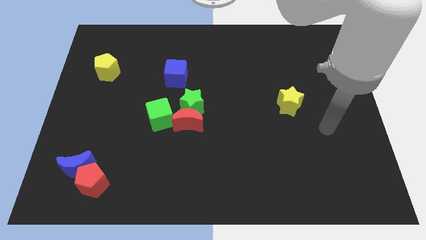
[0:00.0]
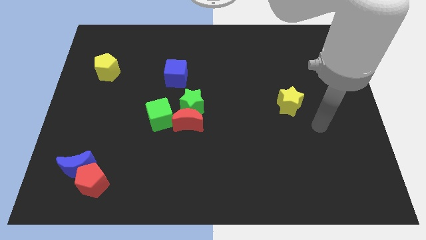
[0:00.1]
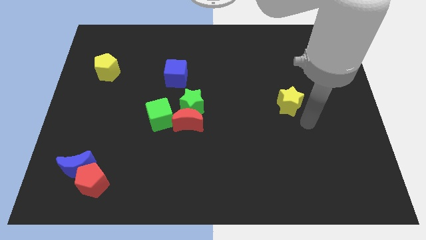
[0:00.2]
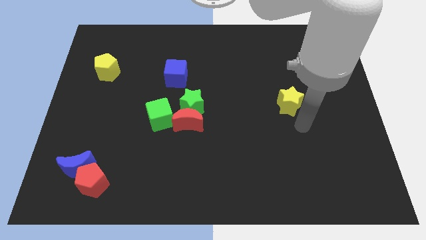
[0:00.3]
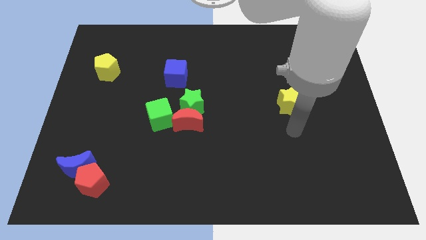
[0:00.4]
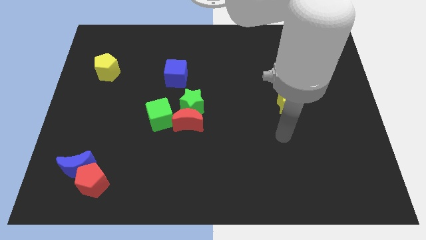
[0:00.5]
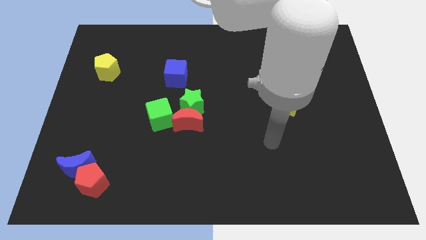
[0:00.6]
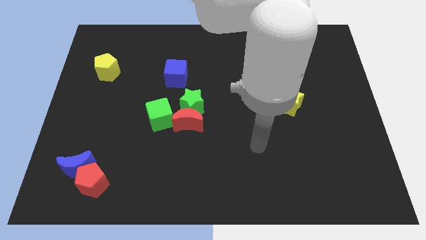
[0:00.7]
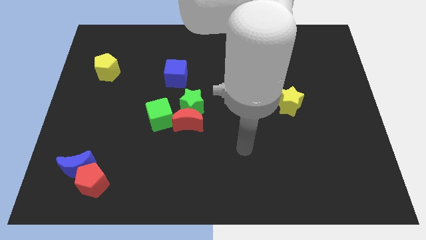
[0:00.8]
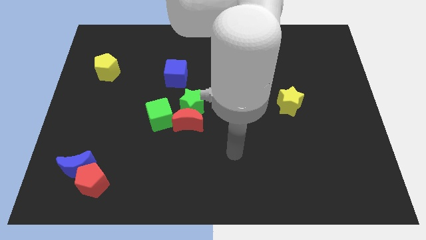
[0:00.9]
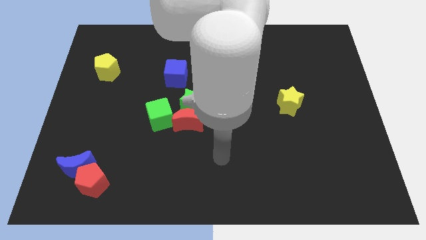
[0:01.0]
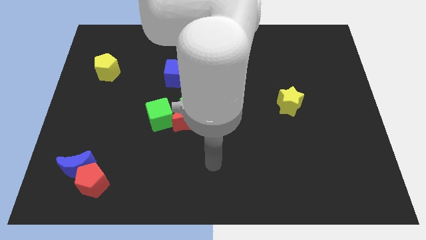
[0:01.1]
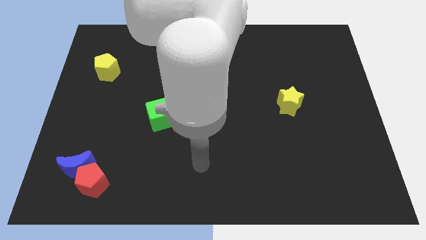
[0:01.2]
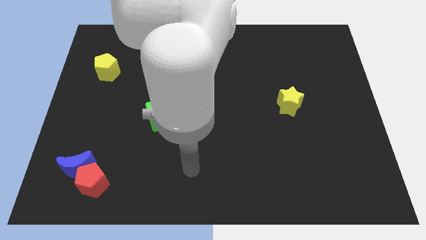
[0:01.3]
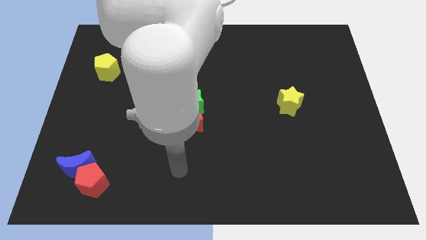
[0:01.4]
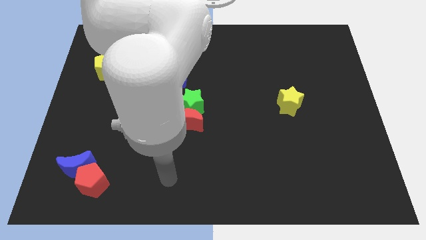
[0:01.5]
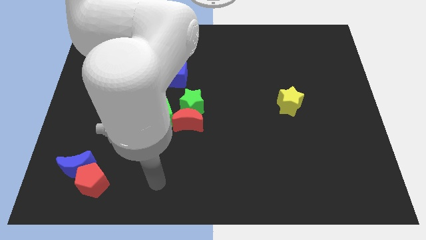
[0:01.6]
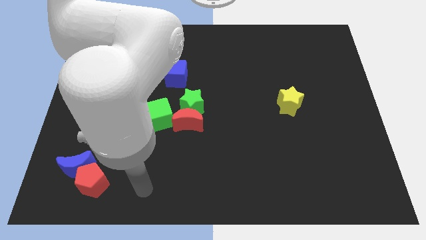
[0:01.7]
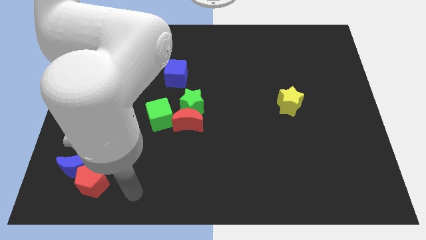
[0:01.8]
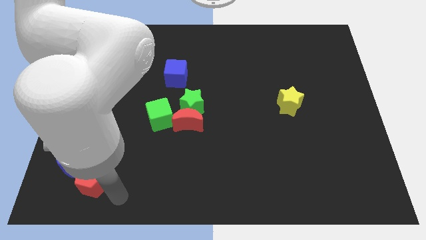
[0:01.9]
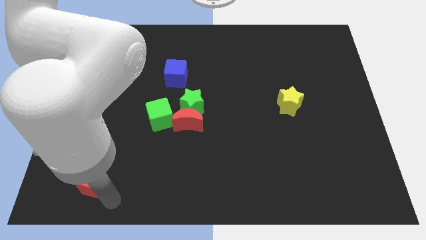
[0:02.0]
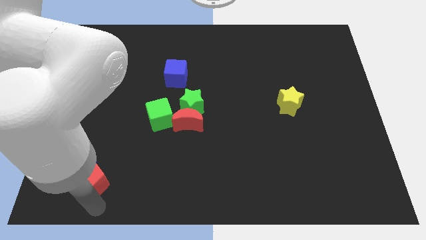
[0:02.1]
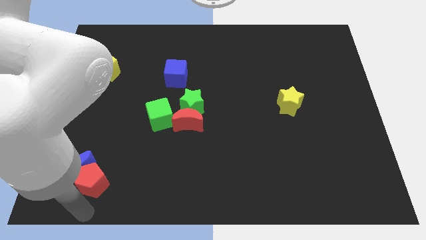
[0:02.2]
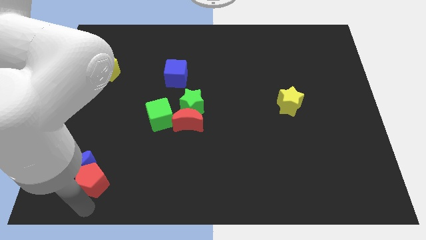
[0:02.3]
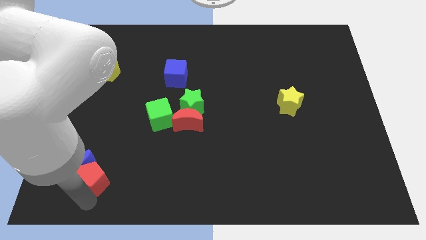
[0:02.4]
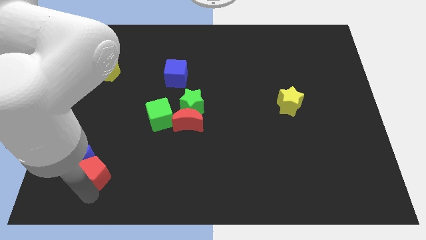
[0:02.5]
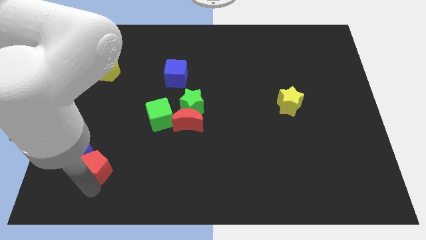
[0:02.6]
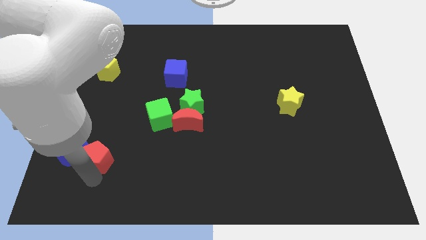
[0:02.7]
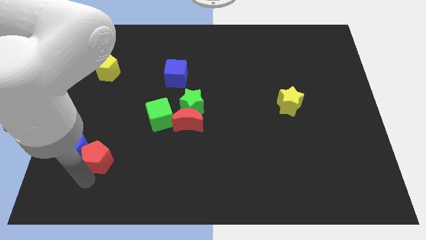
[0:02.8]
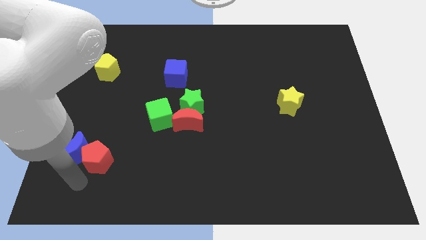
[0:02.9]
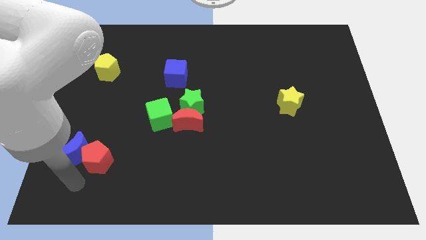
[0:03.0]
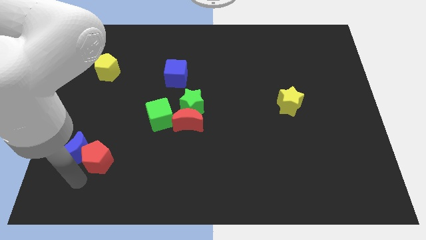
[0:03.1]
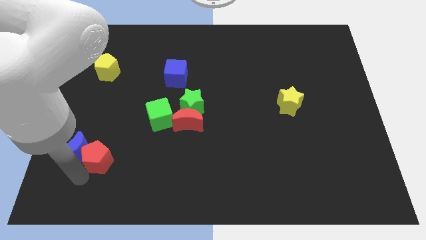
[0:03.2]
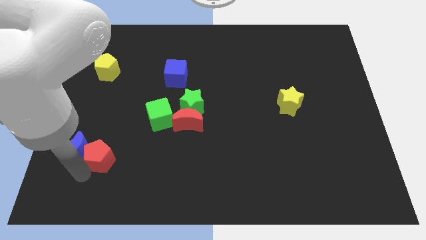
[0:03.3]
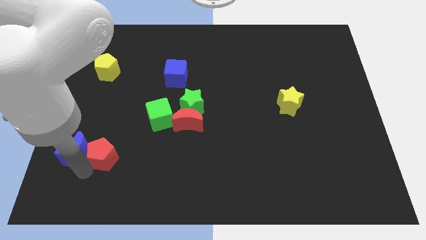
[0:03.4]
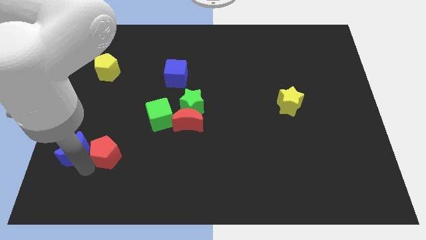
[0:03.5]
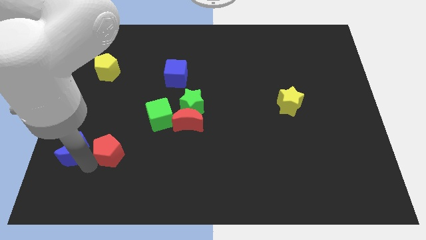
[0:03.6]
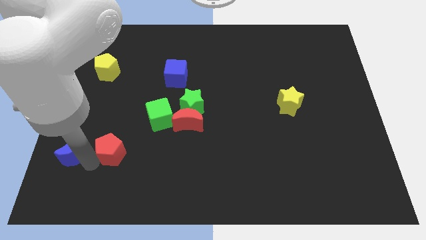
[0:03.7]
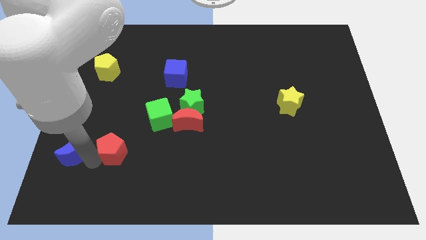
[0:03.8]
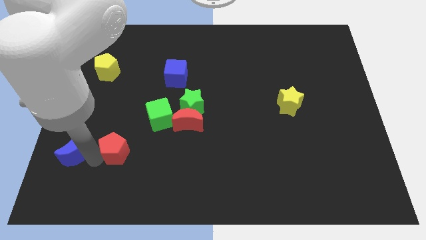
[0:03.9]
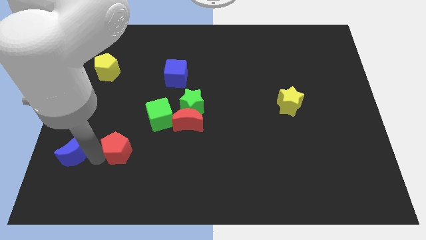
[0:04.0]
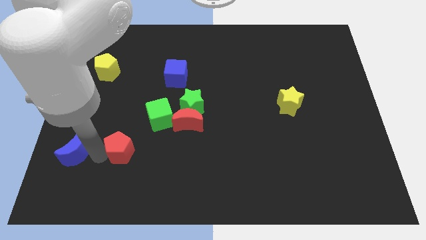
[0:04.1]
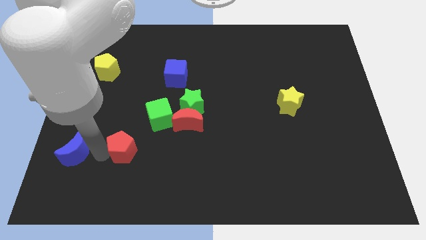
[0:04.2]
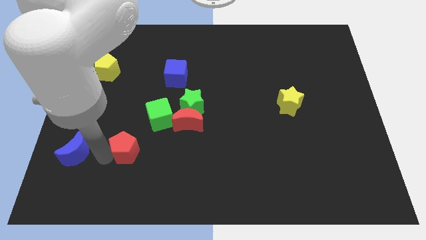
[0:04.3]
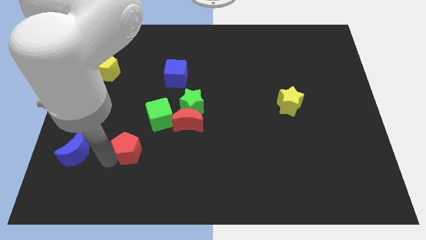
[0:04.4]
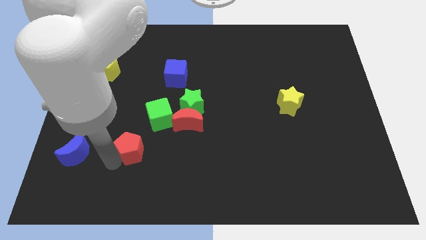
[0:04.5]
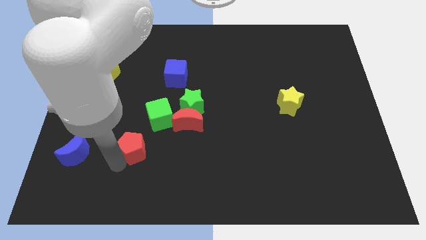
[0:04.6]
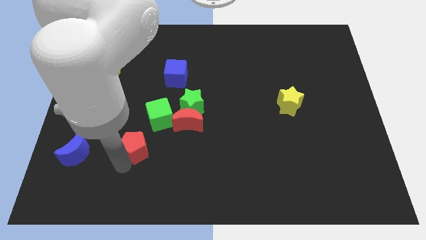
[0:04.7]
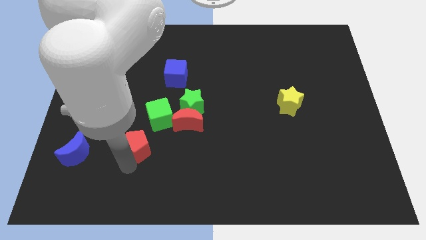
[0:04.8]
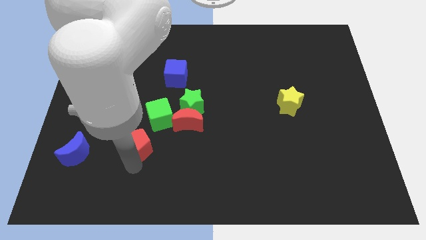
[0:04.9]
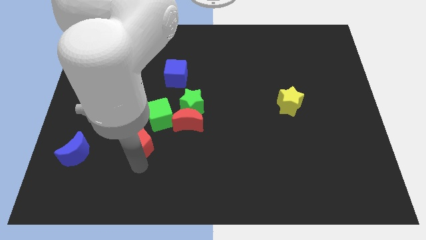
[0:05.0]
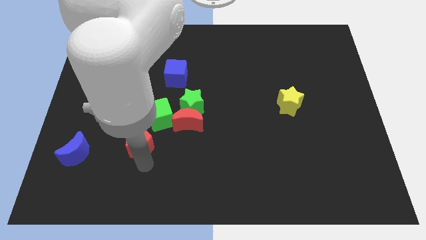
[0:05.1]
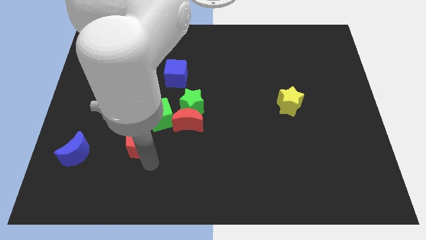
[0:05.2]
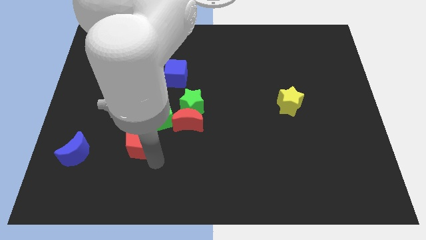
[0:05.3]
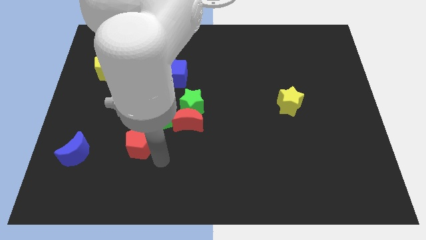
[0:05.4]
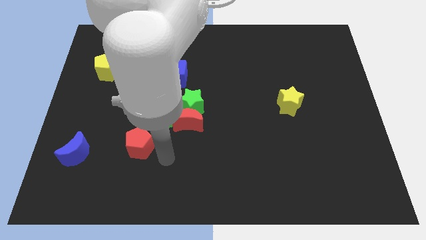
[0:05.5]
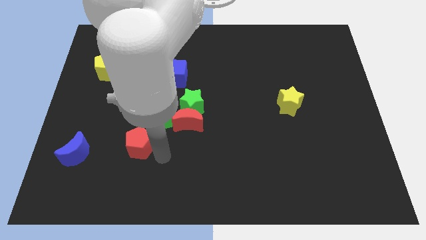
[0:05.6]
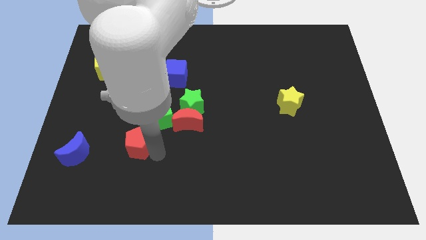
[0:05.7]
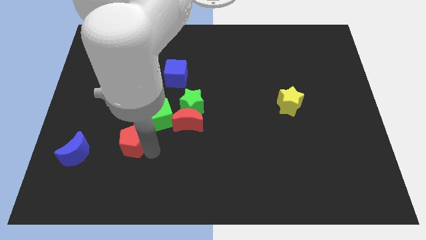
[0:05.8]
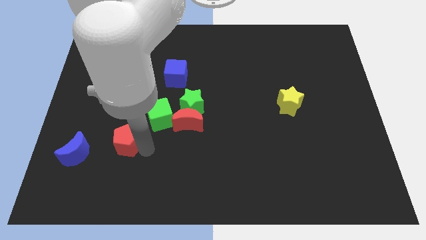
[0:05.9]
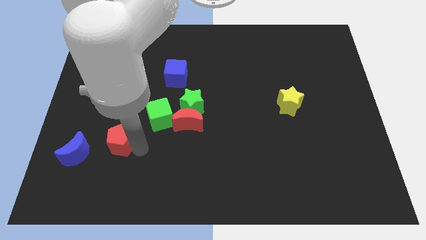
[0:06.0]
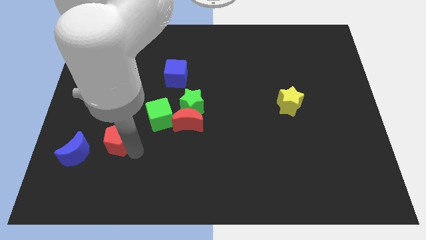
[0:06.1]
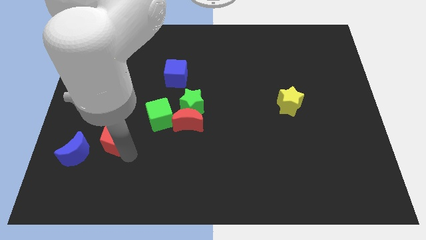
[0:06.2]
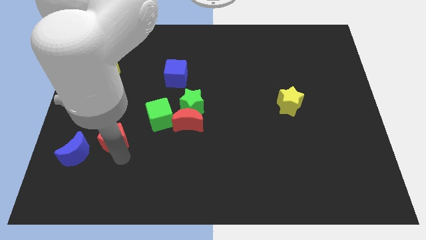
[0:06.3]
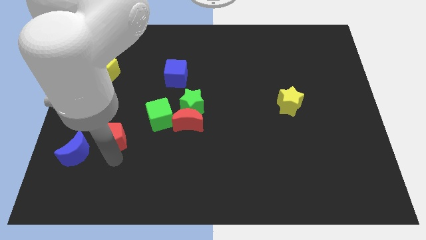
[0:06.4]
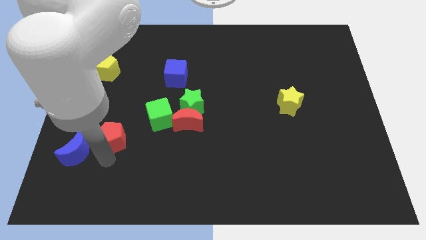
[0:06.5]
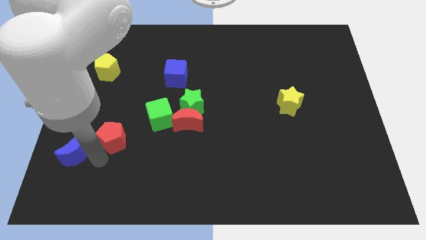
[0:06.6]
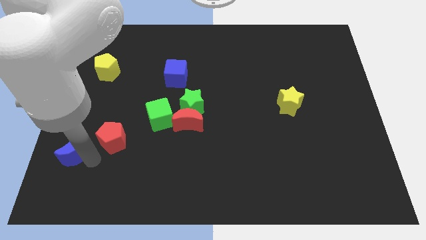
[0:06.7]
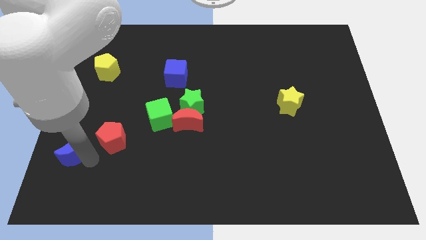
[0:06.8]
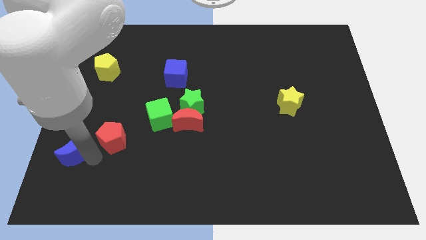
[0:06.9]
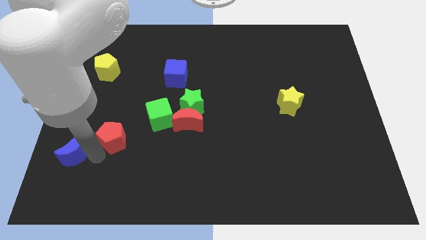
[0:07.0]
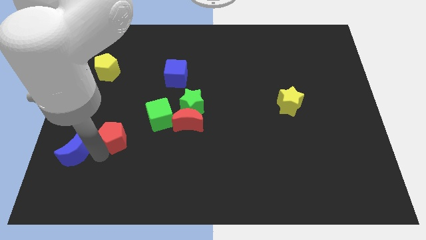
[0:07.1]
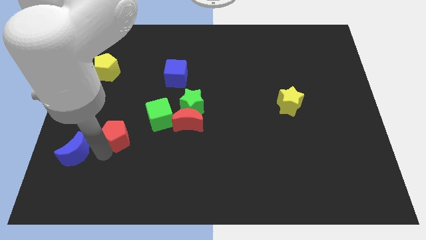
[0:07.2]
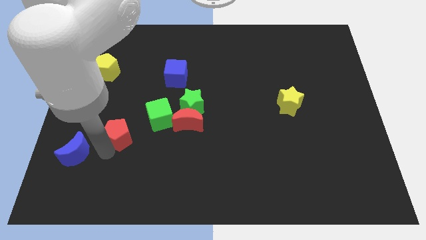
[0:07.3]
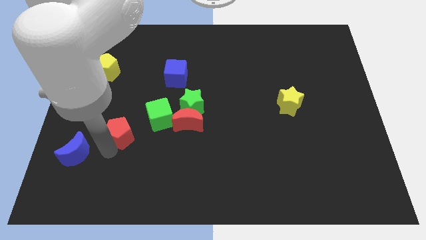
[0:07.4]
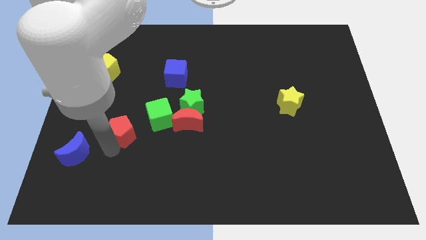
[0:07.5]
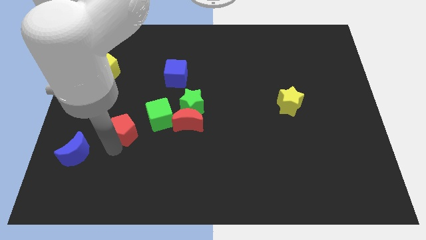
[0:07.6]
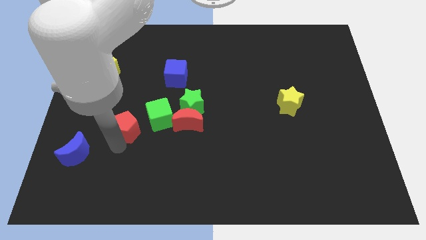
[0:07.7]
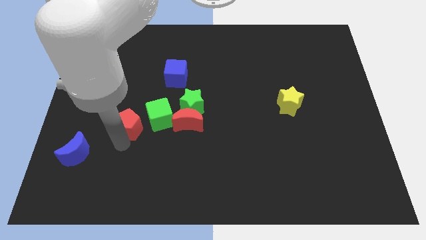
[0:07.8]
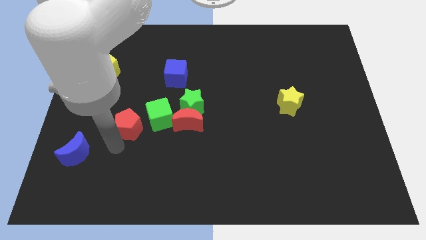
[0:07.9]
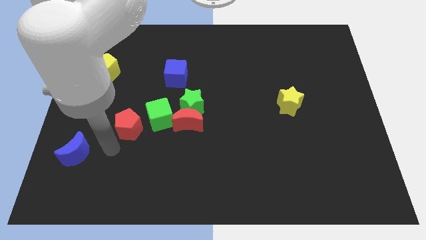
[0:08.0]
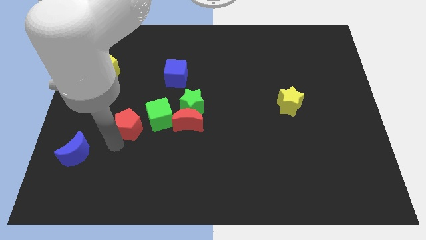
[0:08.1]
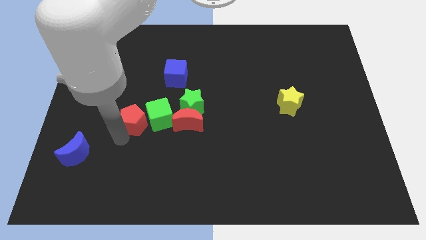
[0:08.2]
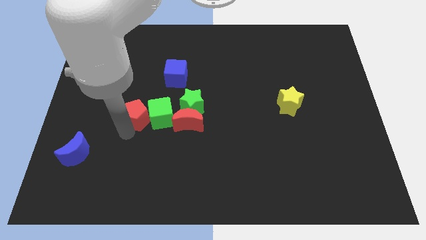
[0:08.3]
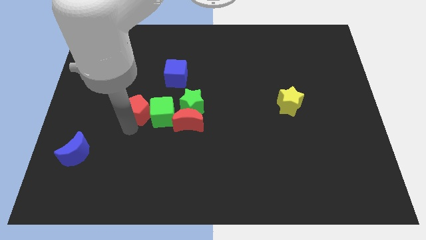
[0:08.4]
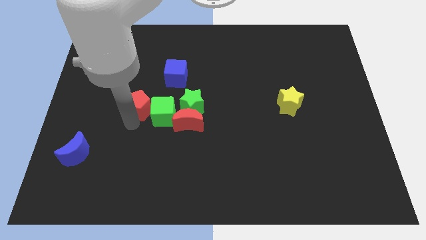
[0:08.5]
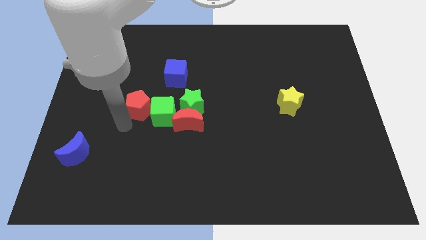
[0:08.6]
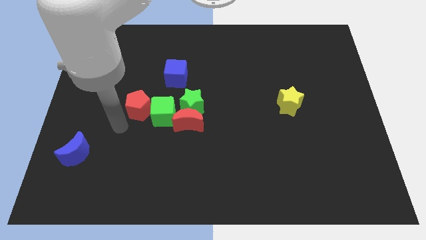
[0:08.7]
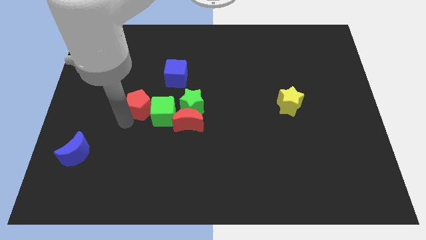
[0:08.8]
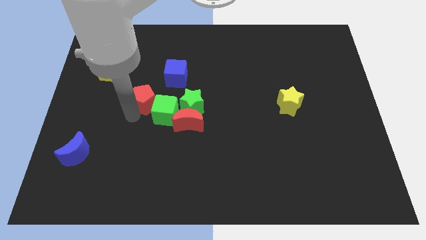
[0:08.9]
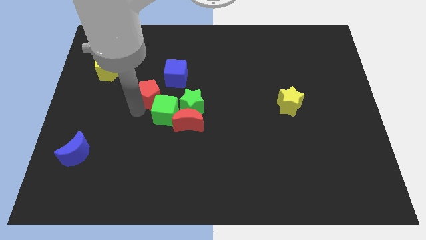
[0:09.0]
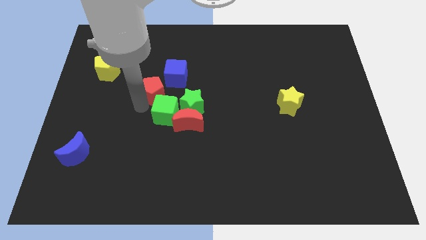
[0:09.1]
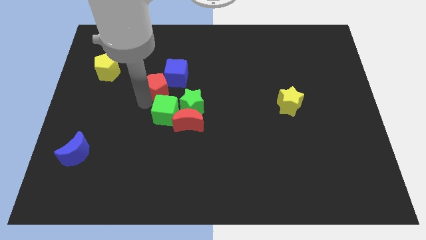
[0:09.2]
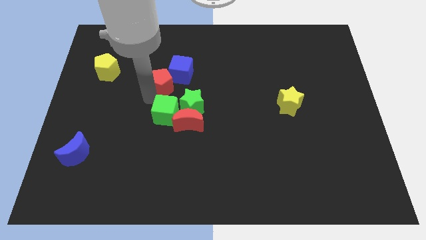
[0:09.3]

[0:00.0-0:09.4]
slide the red pentagon next to the blue cube
